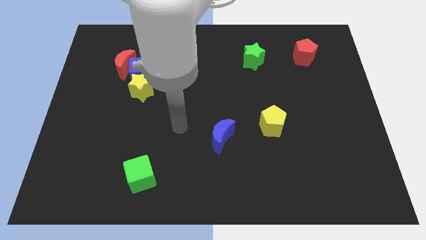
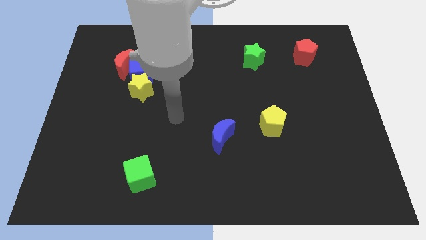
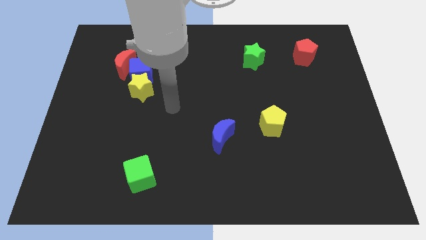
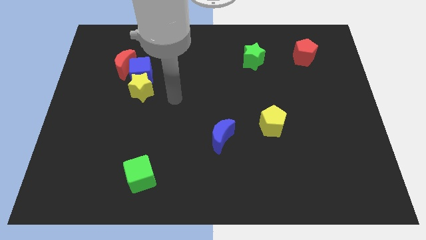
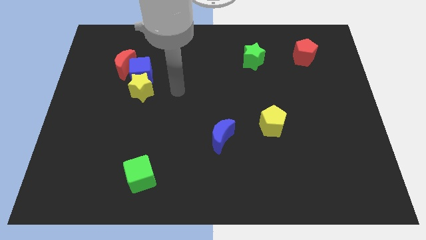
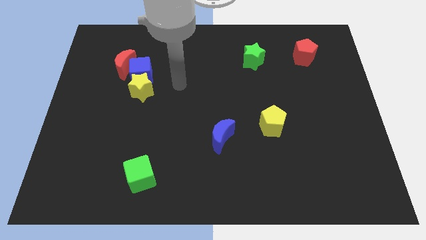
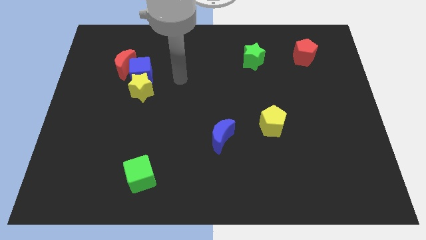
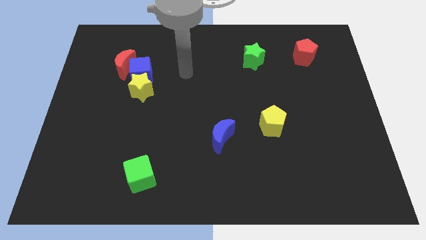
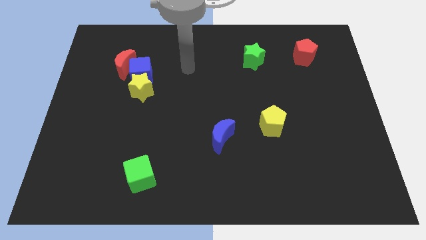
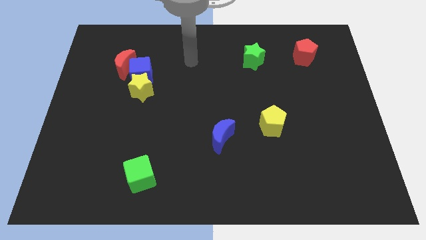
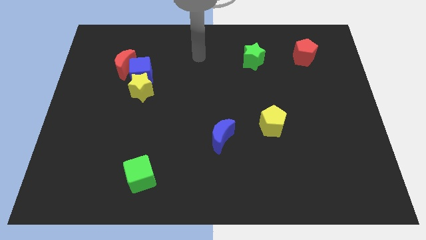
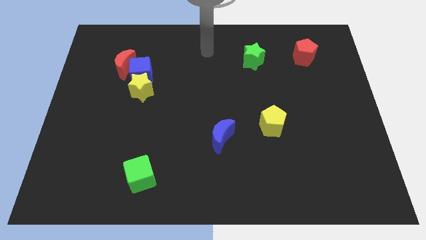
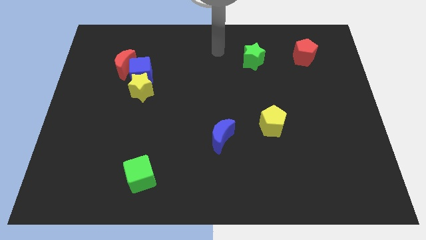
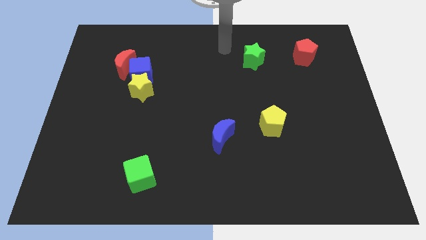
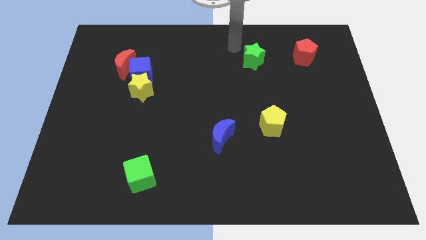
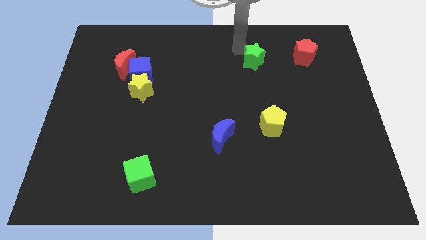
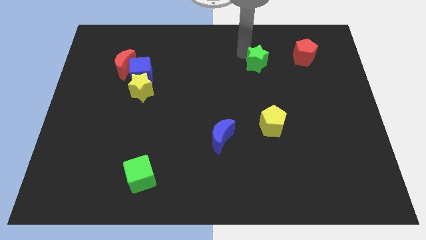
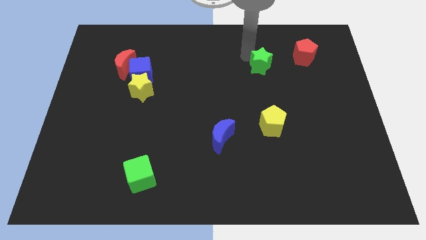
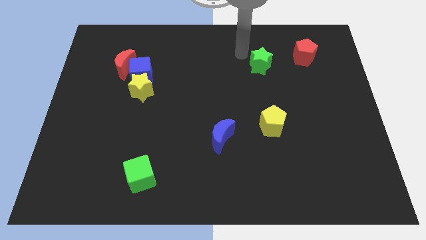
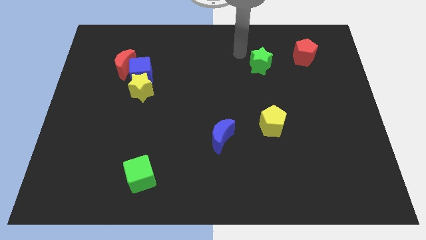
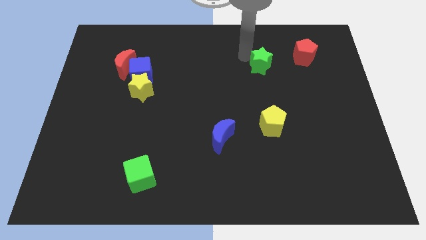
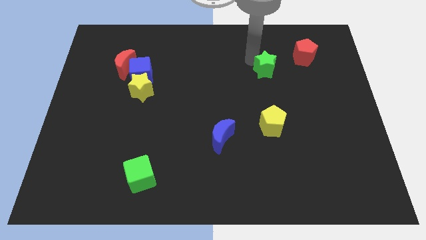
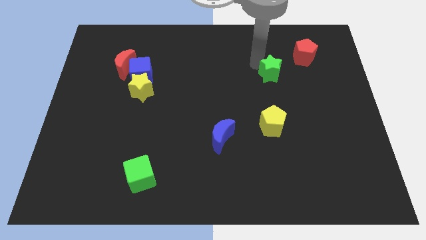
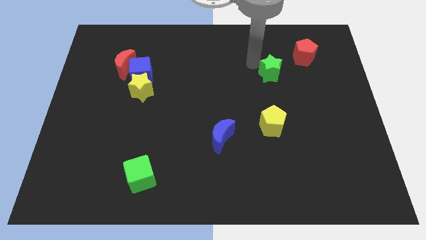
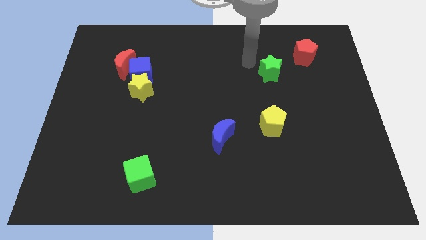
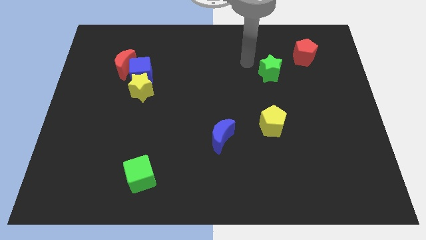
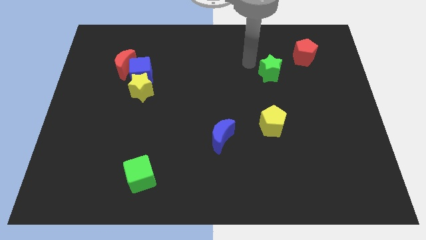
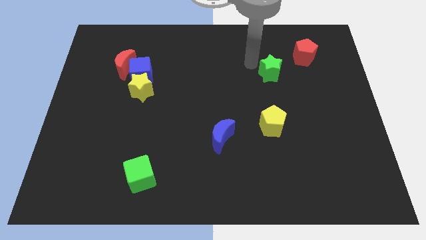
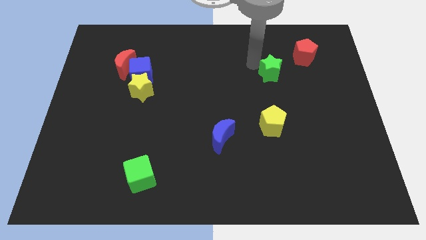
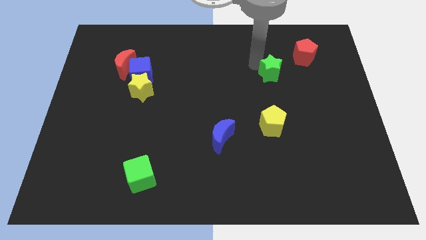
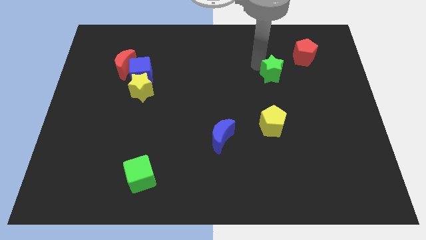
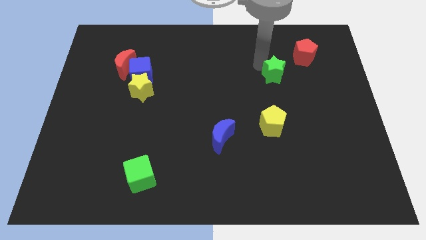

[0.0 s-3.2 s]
move the green star slightly diagonally down and right

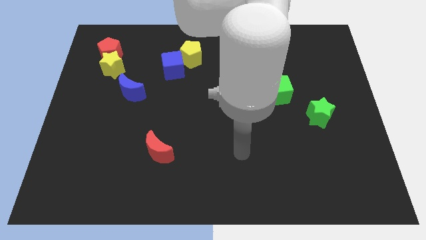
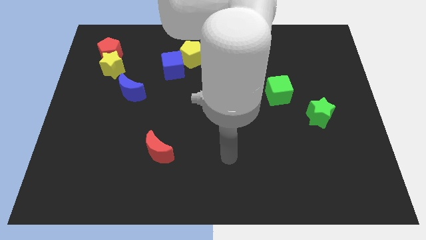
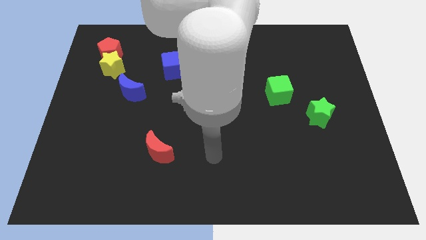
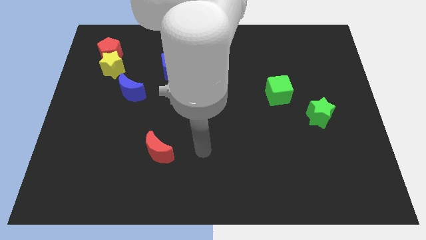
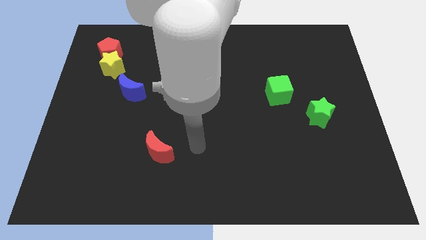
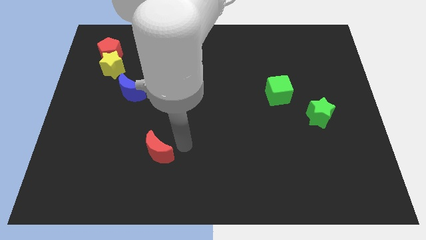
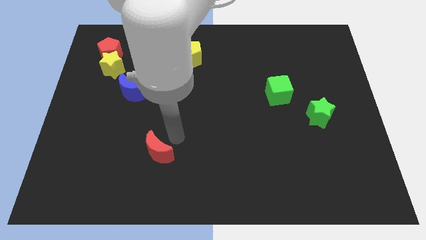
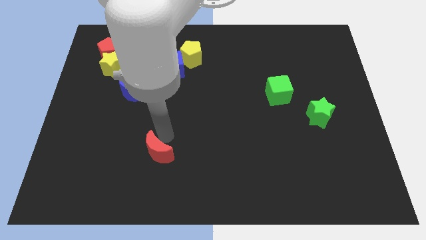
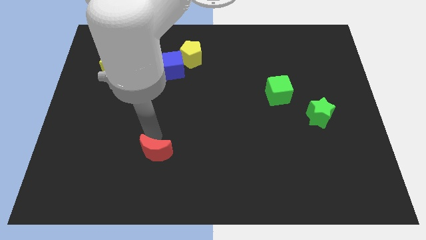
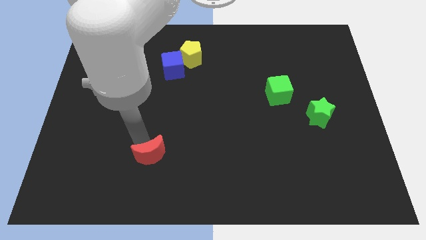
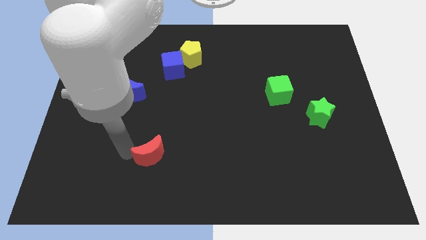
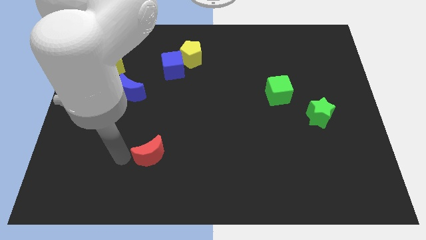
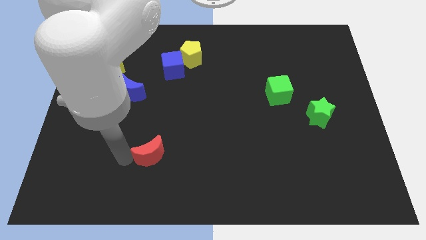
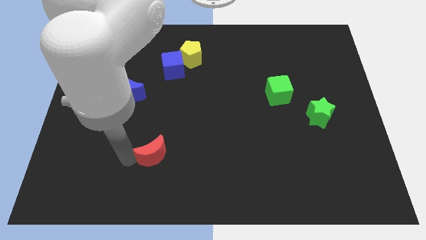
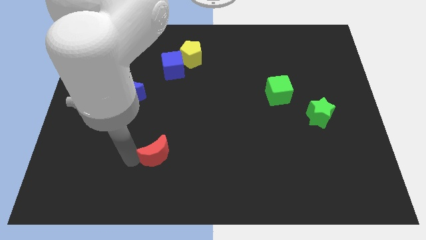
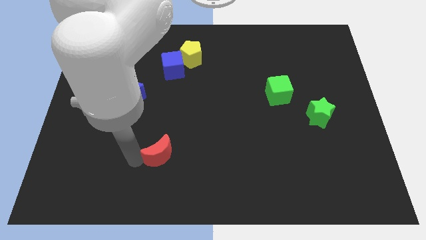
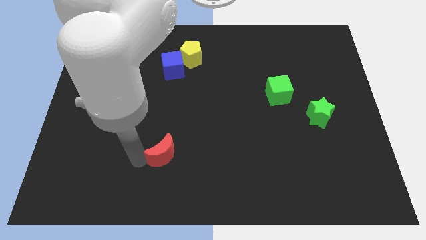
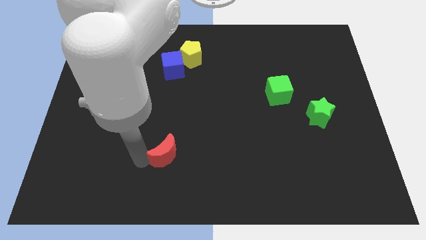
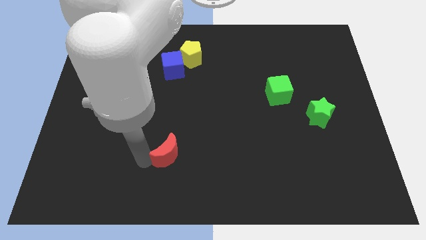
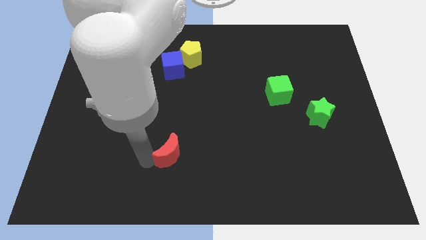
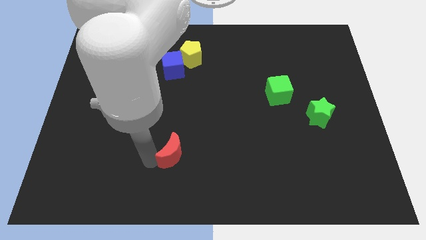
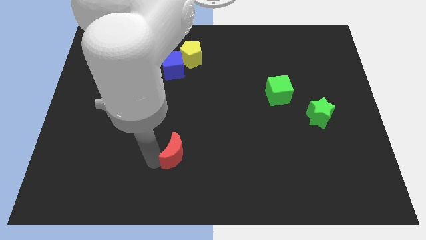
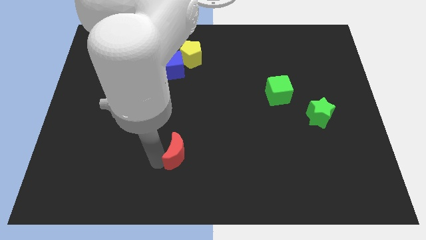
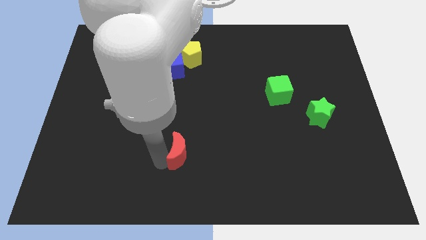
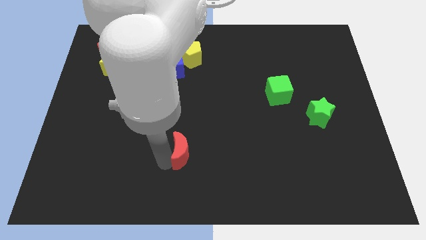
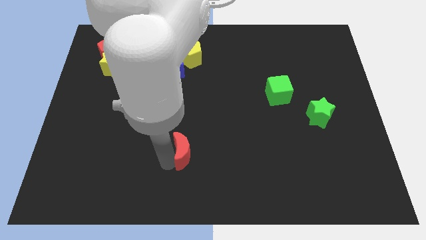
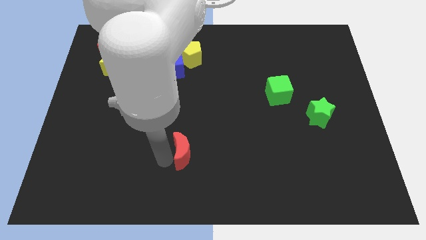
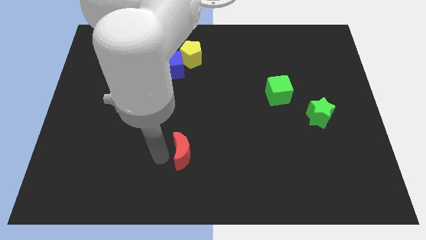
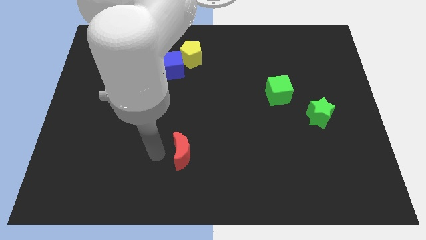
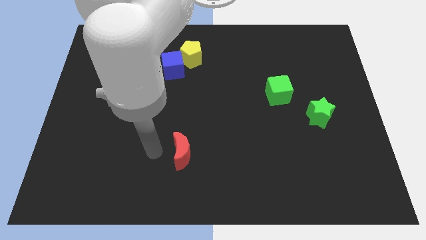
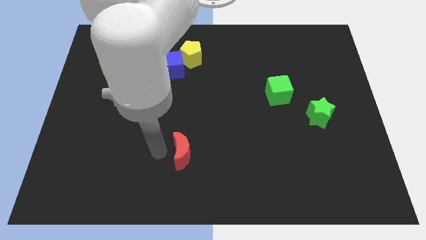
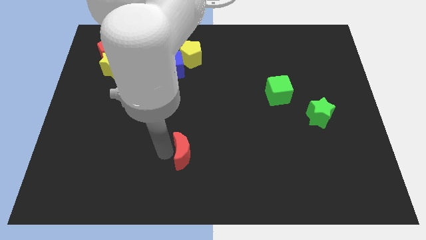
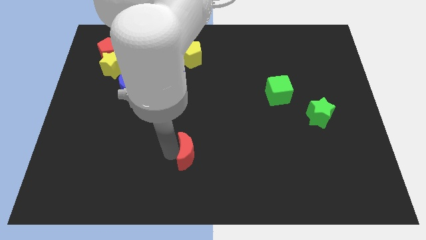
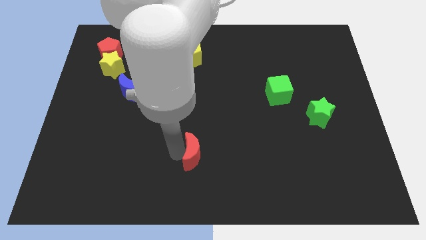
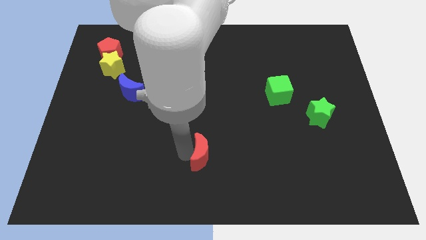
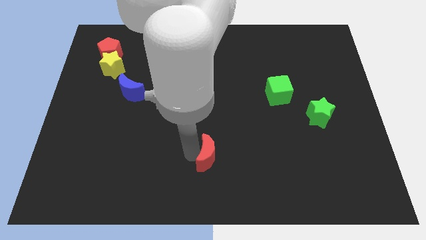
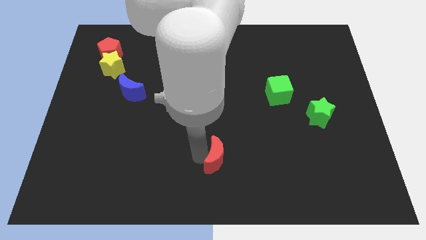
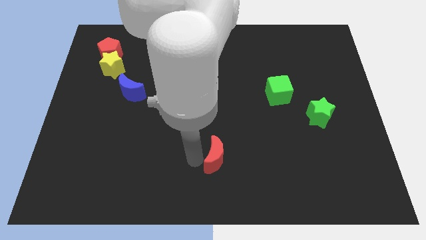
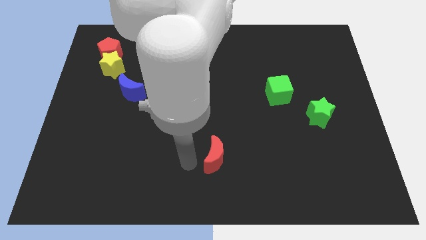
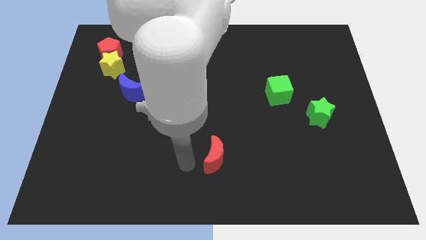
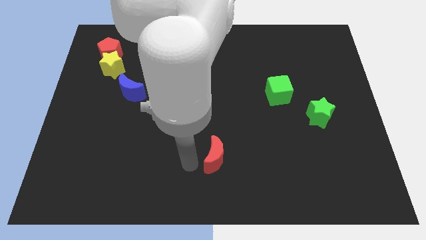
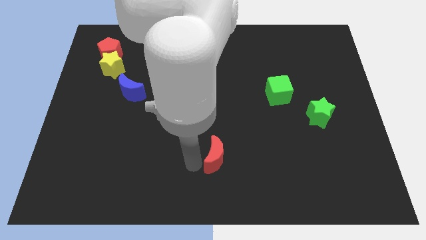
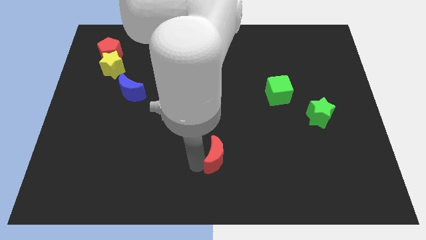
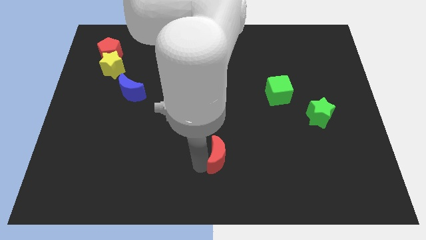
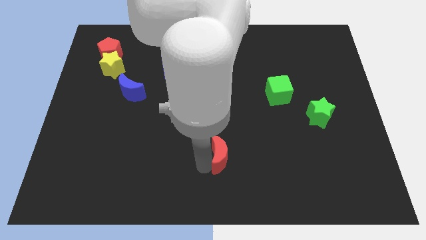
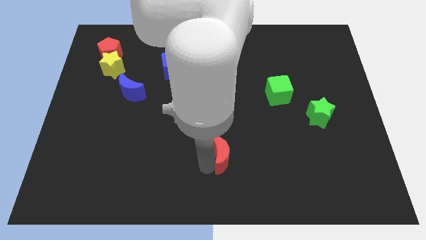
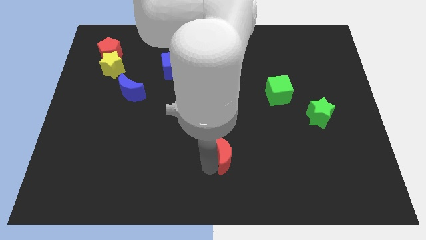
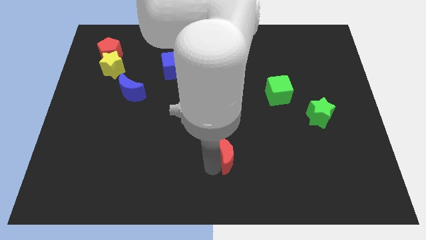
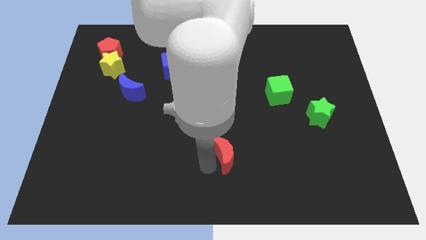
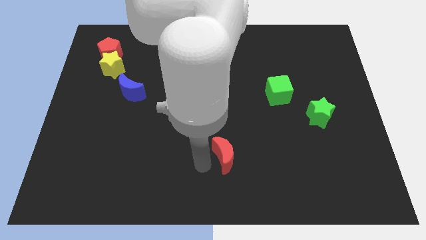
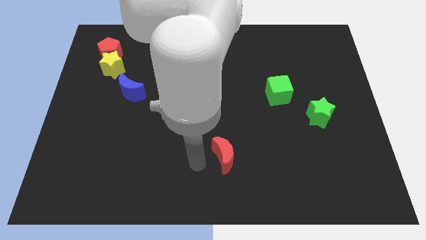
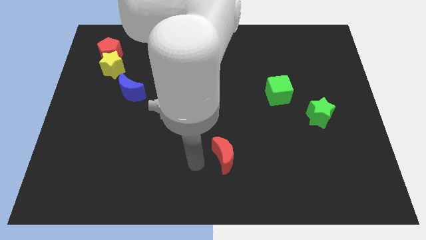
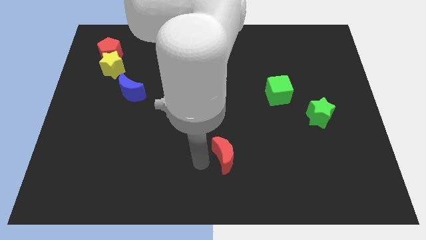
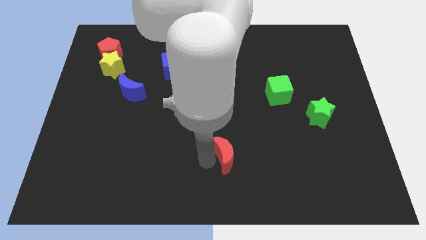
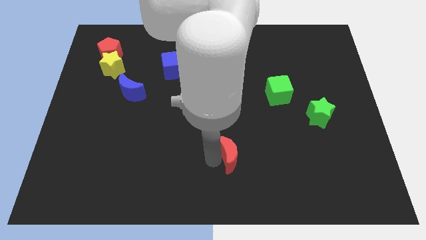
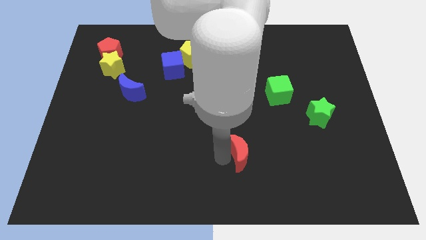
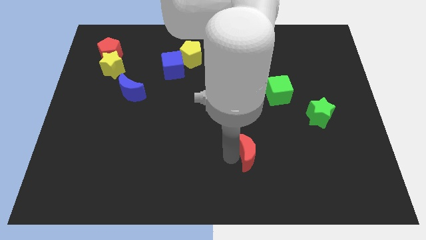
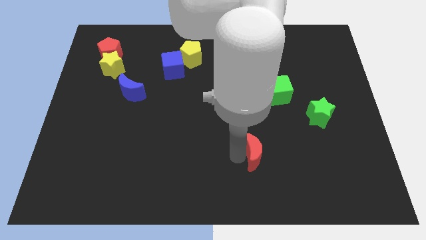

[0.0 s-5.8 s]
move the red moon right
